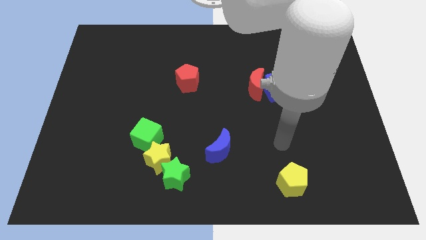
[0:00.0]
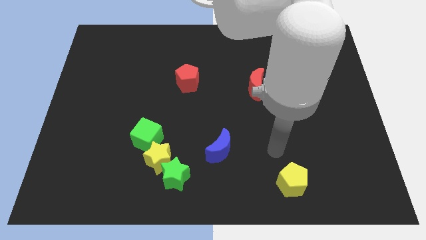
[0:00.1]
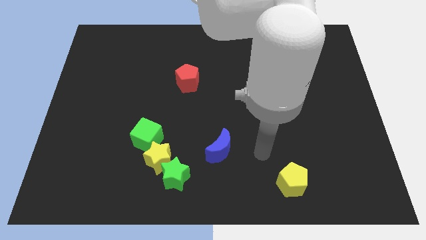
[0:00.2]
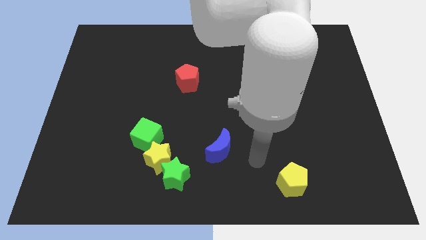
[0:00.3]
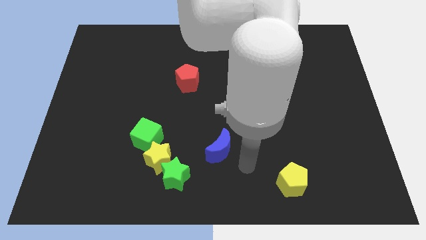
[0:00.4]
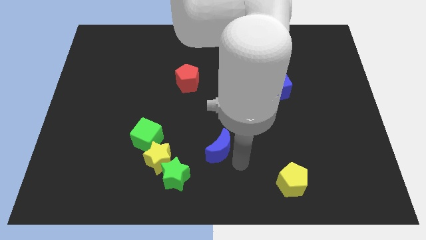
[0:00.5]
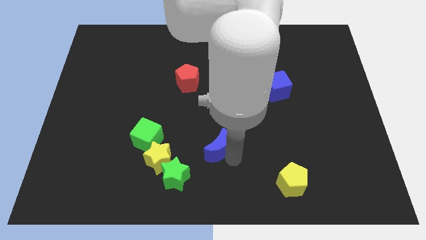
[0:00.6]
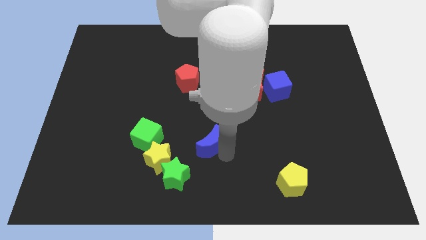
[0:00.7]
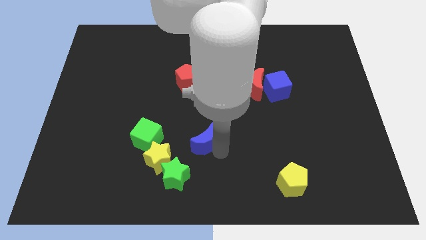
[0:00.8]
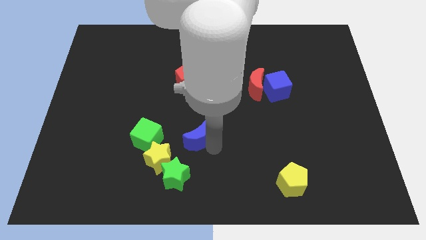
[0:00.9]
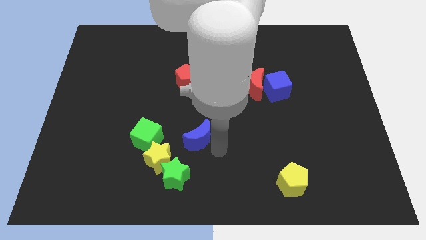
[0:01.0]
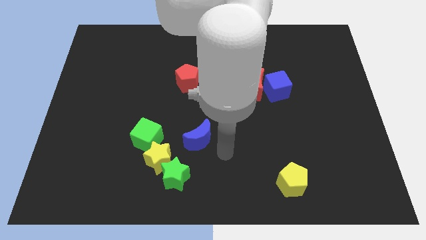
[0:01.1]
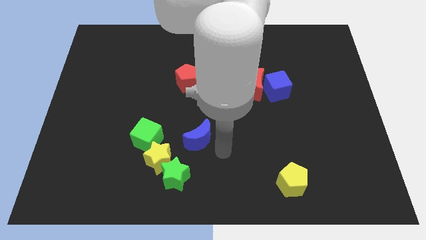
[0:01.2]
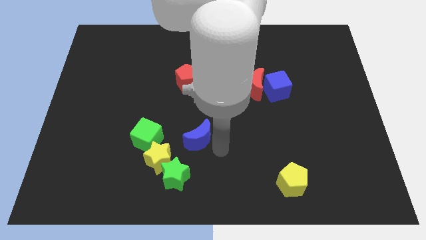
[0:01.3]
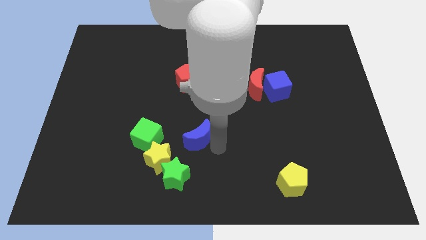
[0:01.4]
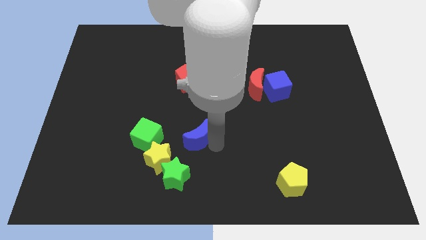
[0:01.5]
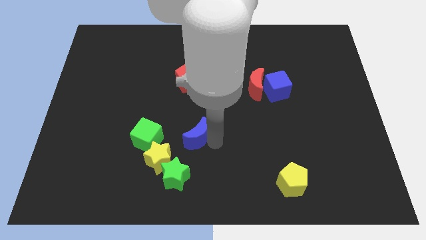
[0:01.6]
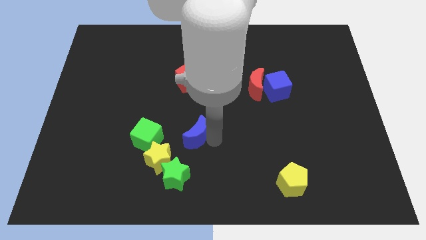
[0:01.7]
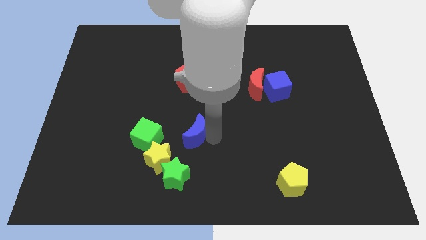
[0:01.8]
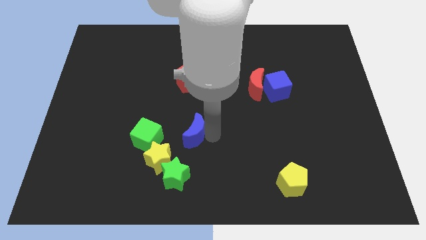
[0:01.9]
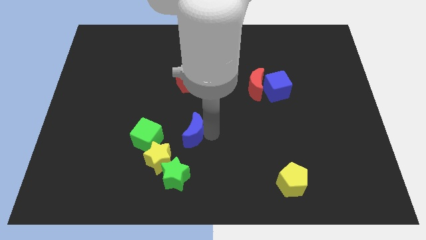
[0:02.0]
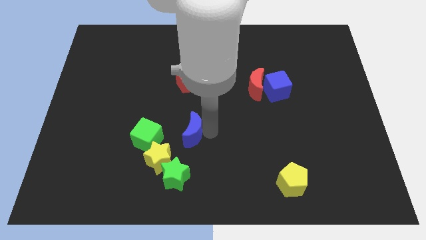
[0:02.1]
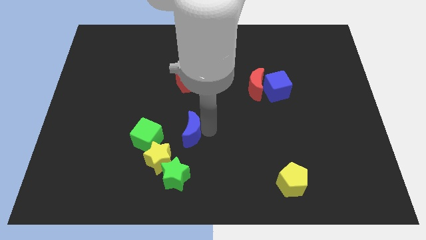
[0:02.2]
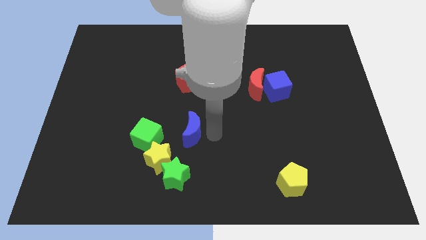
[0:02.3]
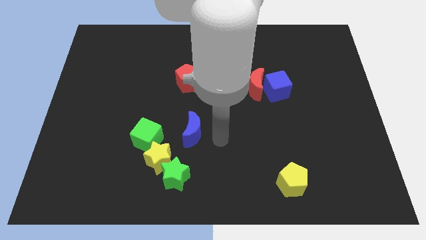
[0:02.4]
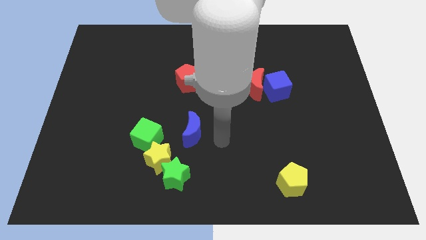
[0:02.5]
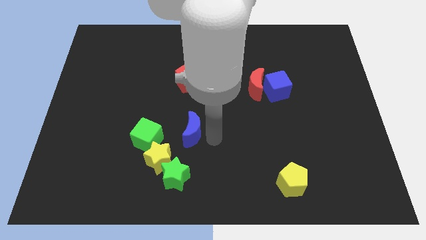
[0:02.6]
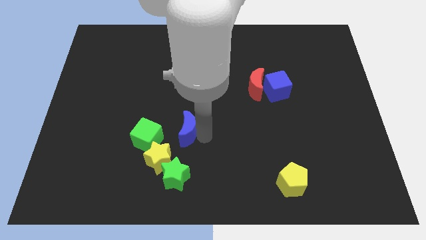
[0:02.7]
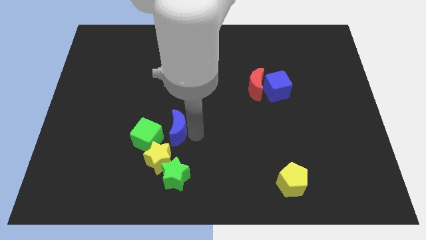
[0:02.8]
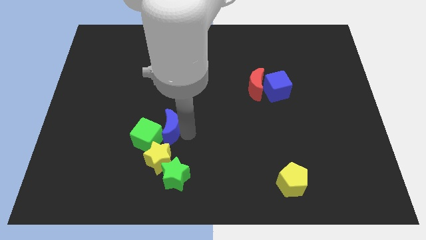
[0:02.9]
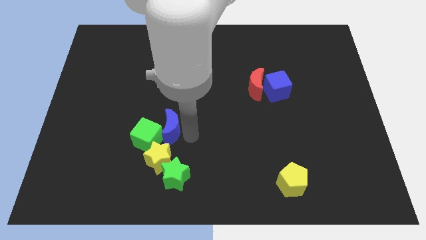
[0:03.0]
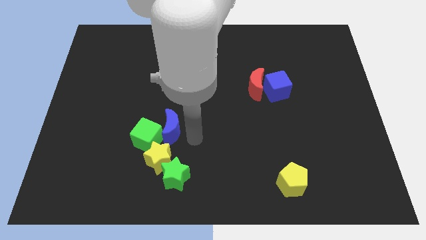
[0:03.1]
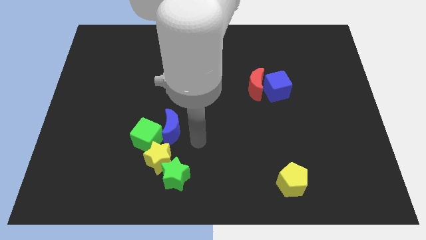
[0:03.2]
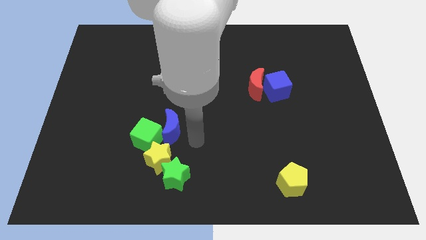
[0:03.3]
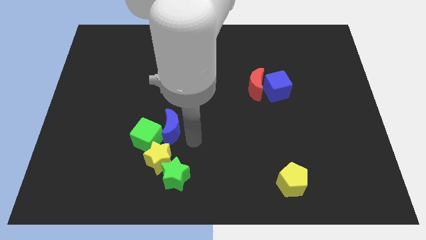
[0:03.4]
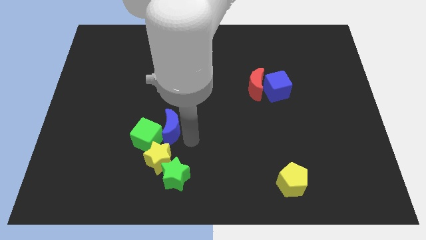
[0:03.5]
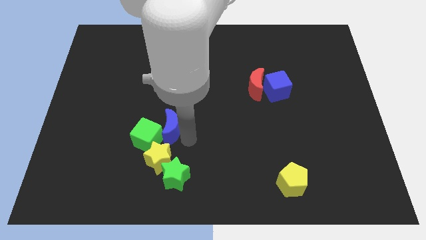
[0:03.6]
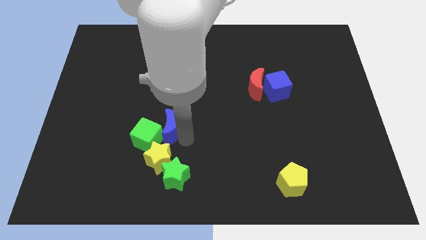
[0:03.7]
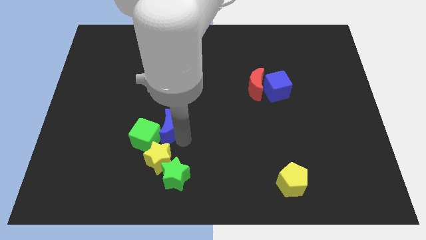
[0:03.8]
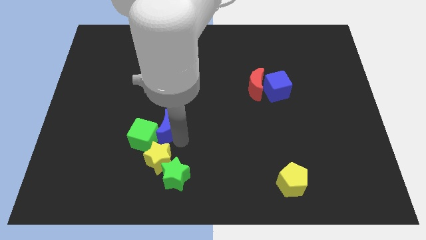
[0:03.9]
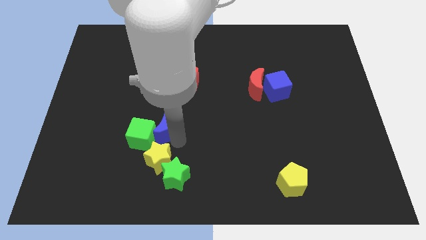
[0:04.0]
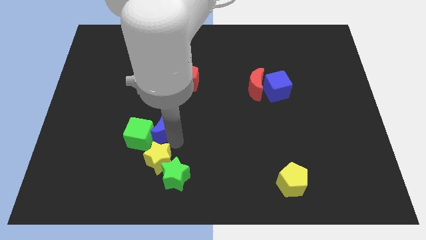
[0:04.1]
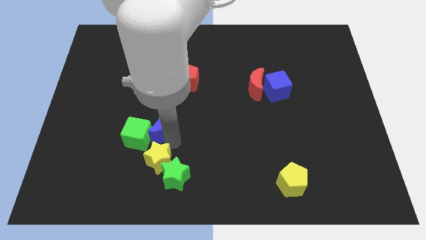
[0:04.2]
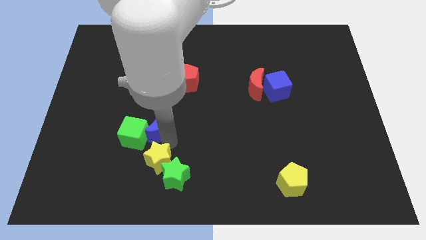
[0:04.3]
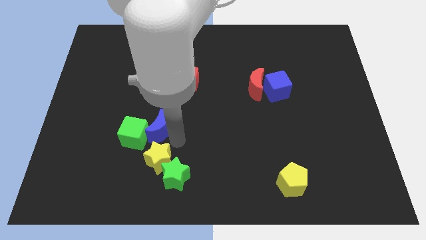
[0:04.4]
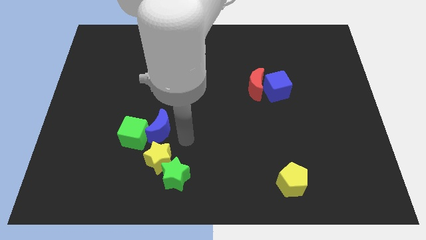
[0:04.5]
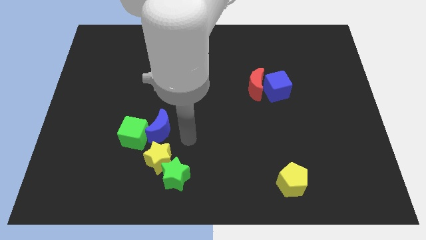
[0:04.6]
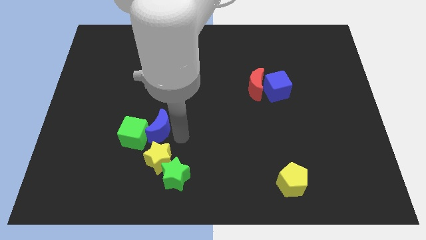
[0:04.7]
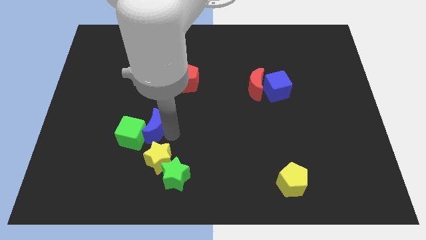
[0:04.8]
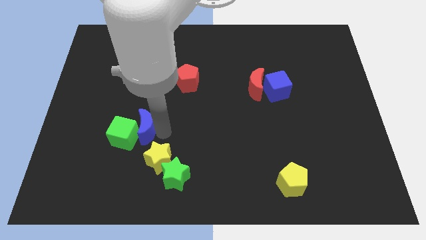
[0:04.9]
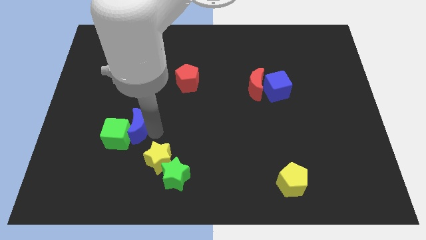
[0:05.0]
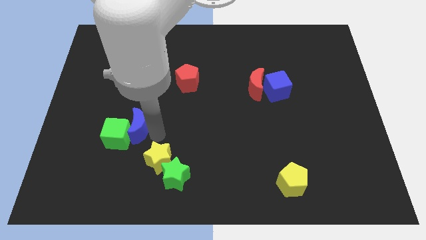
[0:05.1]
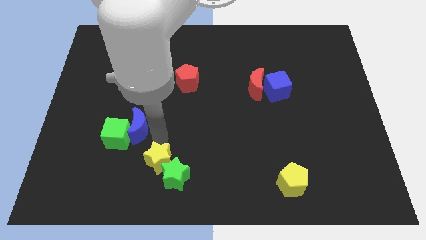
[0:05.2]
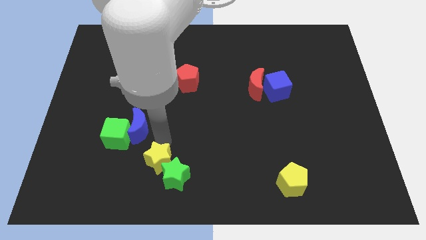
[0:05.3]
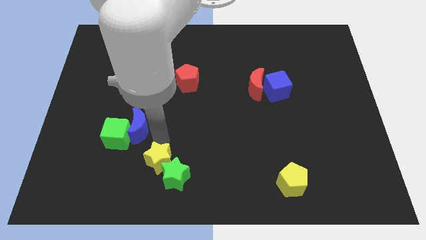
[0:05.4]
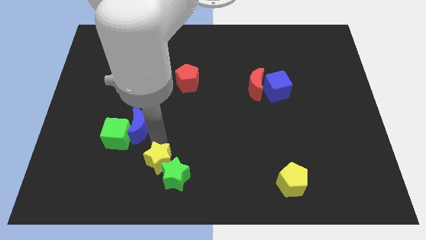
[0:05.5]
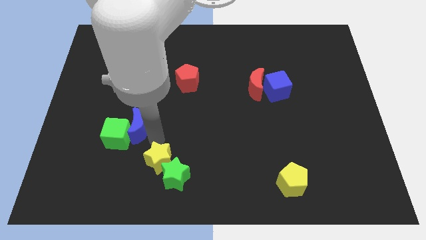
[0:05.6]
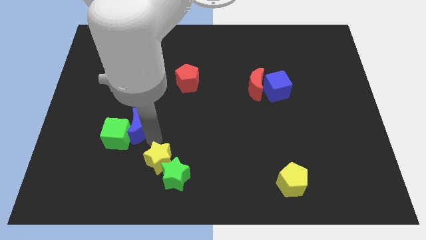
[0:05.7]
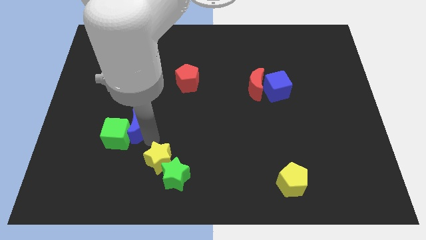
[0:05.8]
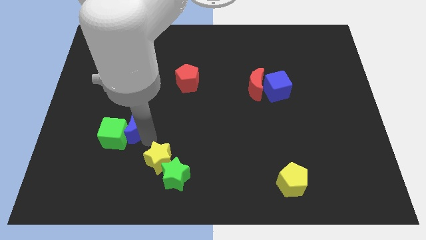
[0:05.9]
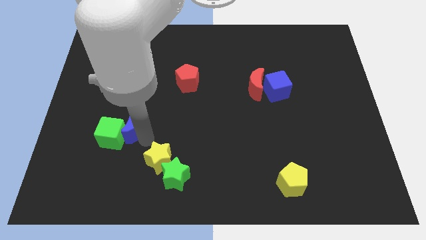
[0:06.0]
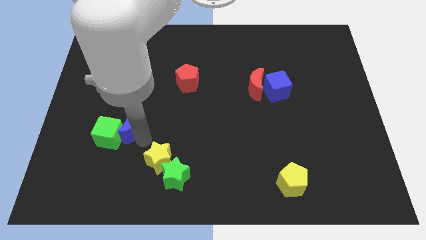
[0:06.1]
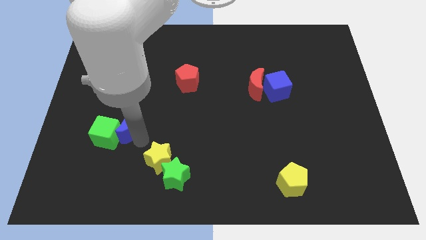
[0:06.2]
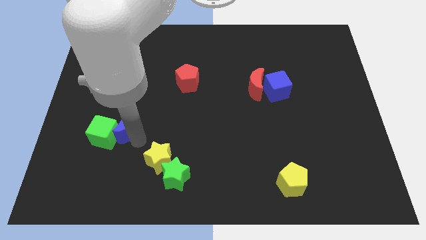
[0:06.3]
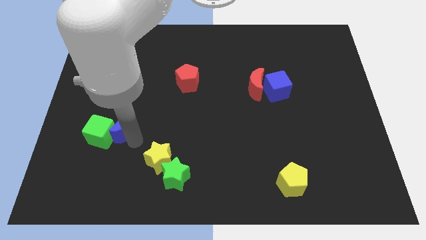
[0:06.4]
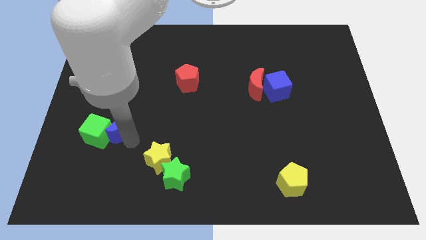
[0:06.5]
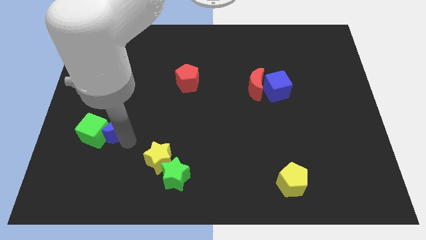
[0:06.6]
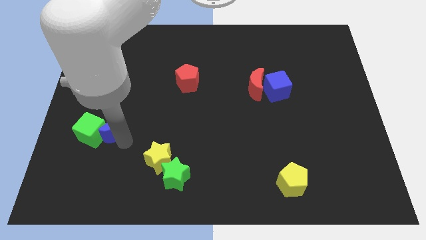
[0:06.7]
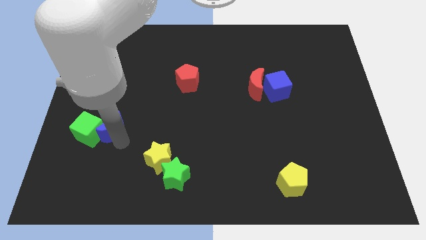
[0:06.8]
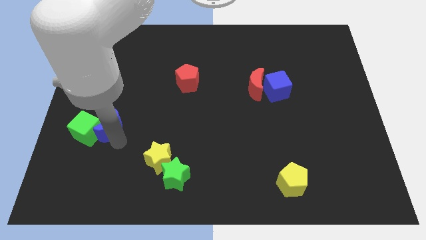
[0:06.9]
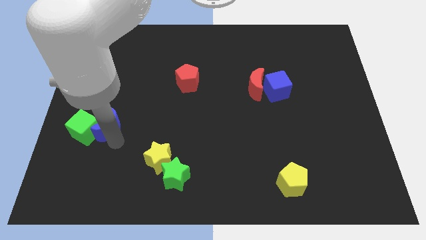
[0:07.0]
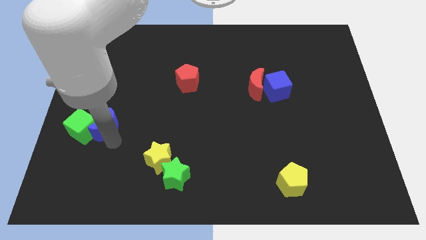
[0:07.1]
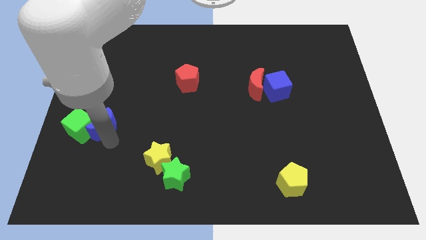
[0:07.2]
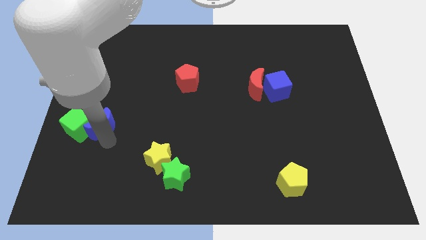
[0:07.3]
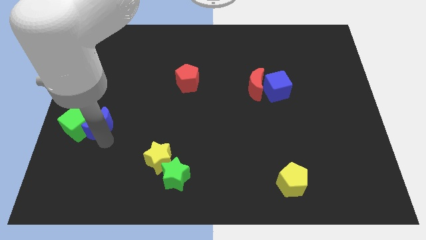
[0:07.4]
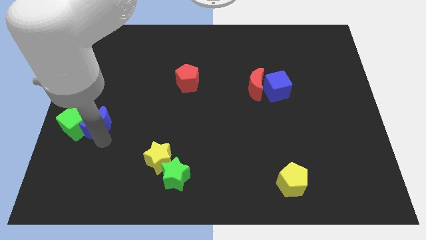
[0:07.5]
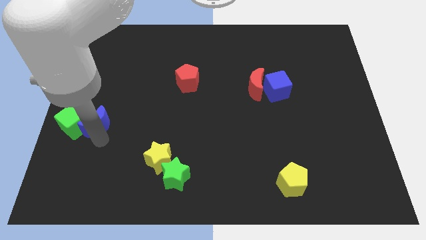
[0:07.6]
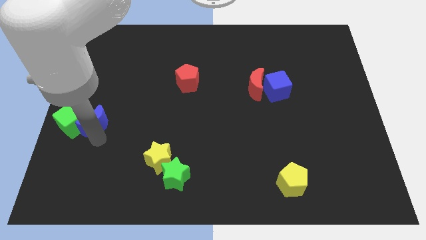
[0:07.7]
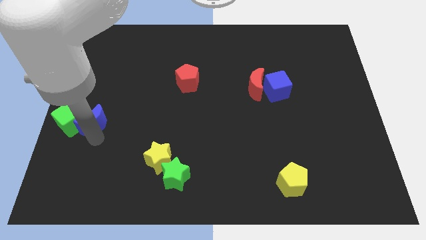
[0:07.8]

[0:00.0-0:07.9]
push the blue moon to the left side
